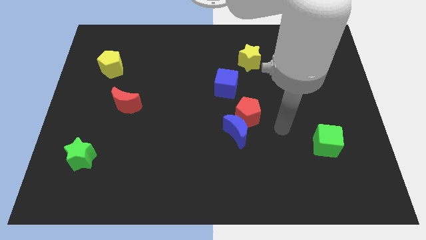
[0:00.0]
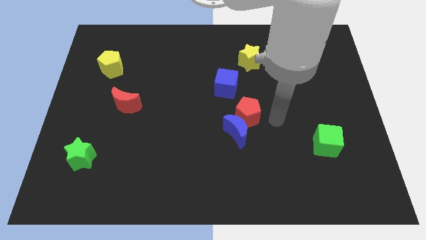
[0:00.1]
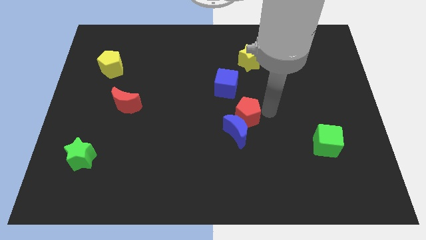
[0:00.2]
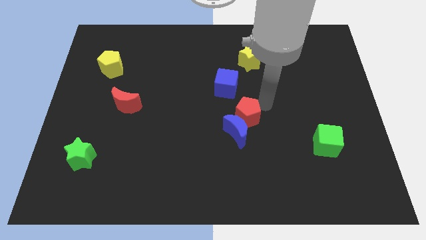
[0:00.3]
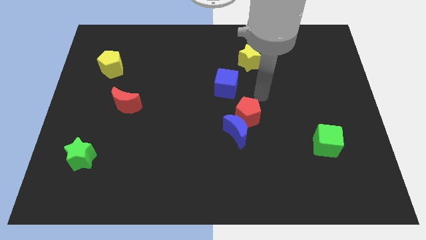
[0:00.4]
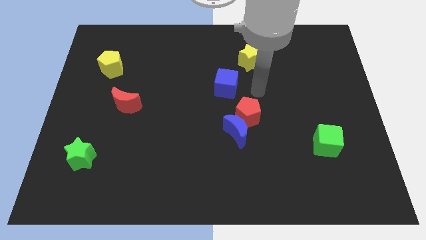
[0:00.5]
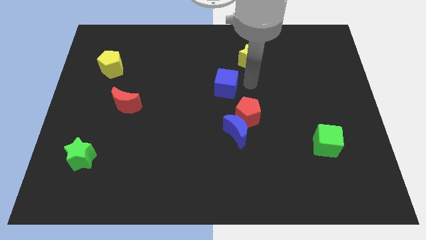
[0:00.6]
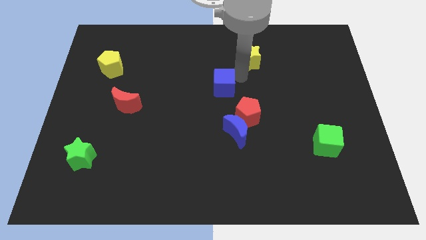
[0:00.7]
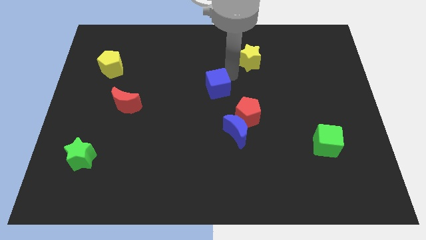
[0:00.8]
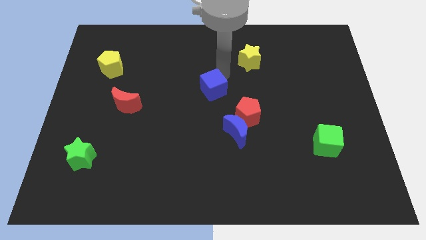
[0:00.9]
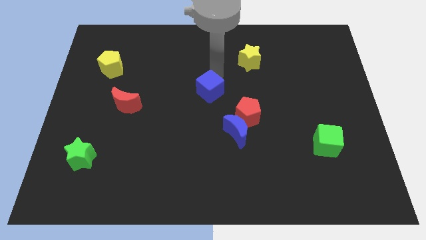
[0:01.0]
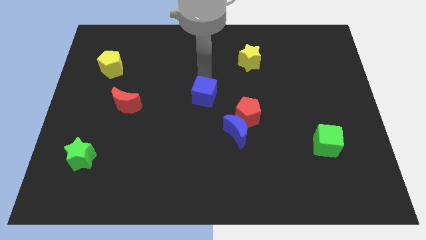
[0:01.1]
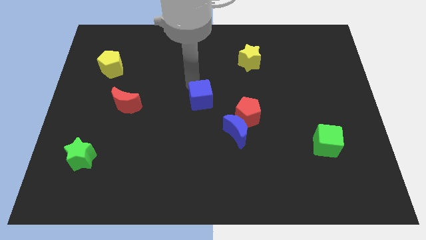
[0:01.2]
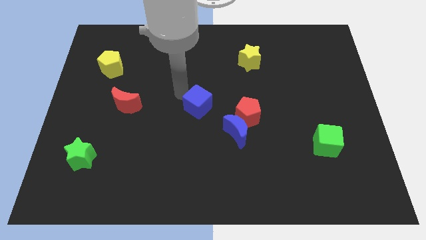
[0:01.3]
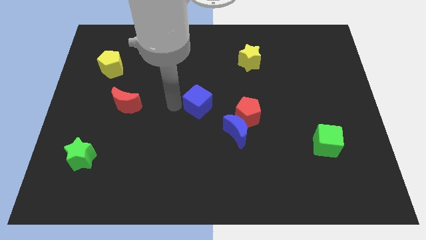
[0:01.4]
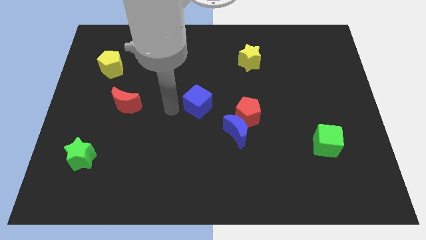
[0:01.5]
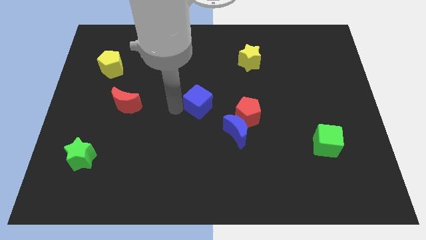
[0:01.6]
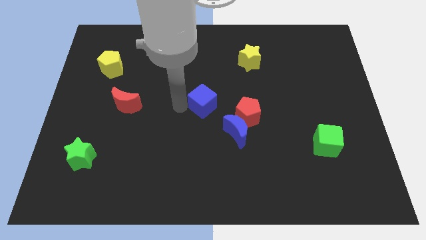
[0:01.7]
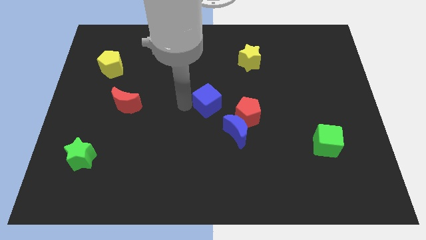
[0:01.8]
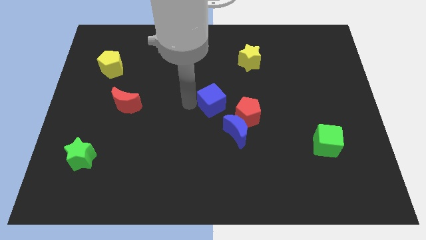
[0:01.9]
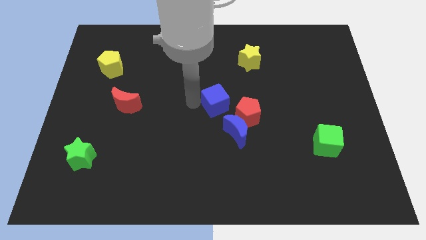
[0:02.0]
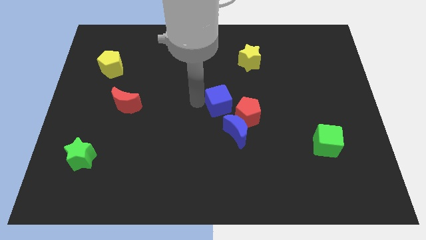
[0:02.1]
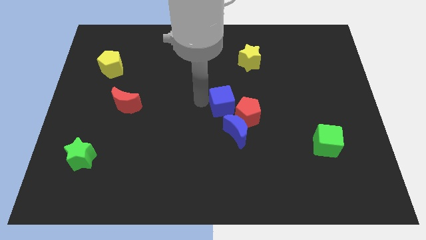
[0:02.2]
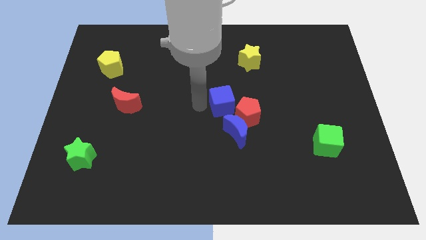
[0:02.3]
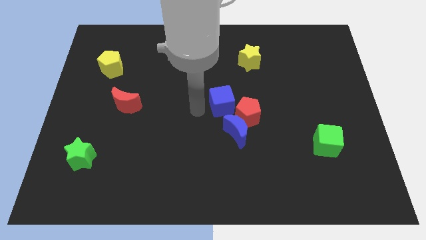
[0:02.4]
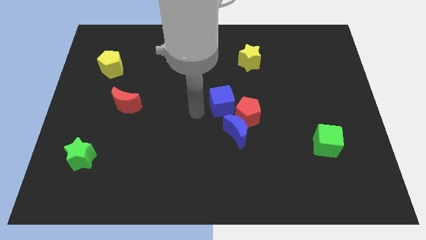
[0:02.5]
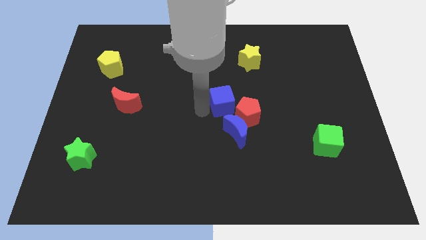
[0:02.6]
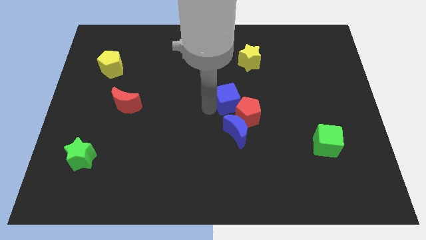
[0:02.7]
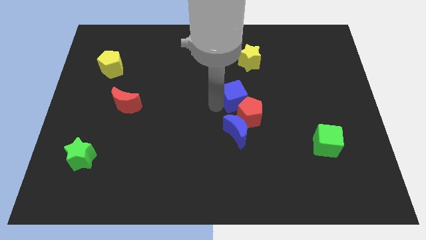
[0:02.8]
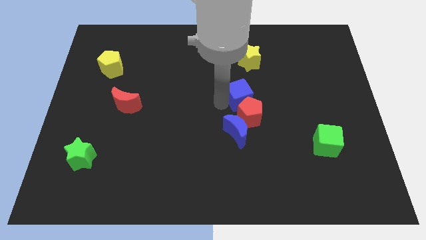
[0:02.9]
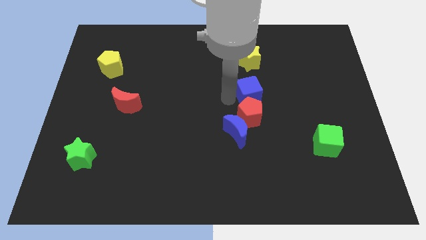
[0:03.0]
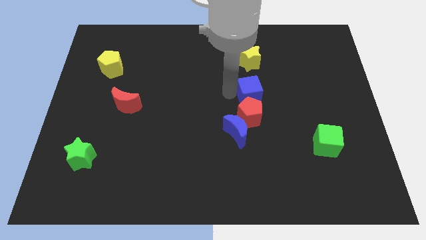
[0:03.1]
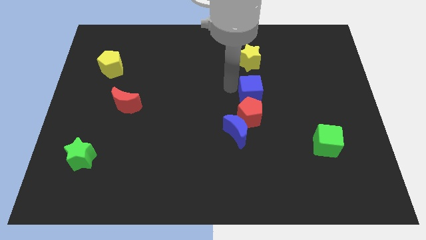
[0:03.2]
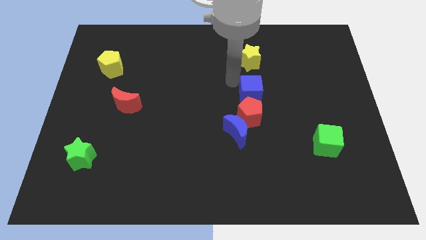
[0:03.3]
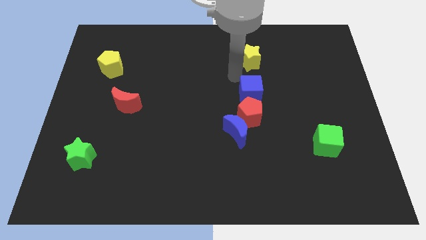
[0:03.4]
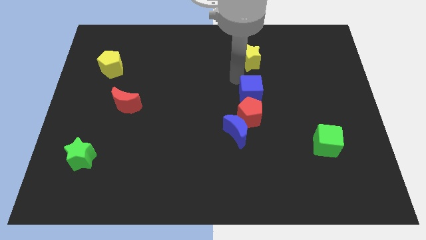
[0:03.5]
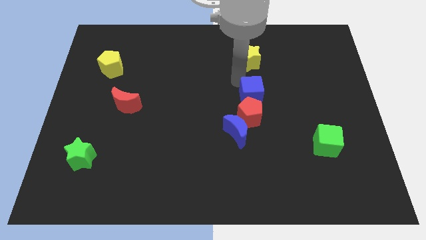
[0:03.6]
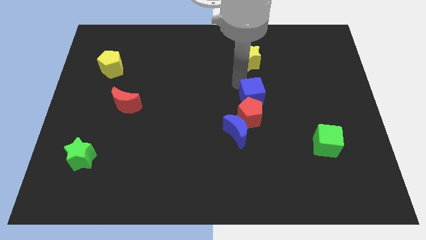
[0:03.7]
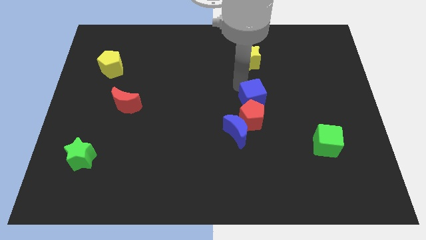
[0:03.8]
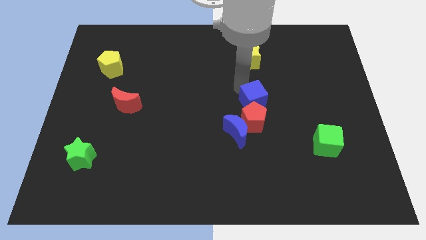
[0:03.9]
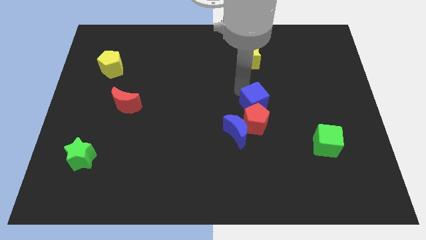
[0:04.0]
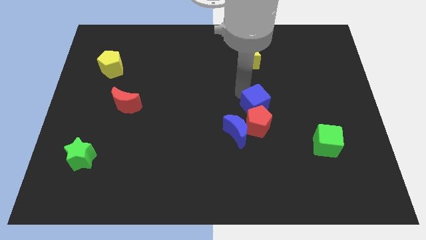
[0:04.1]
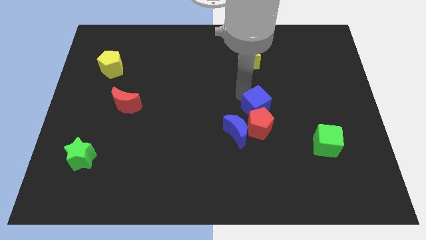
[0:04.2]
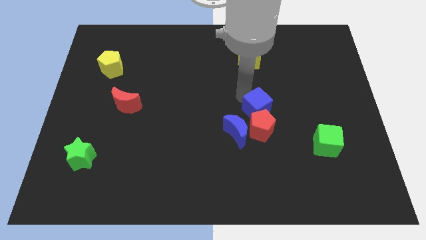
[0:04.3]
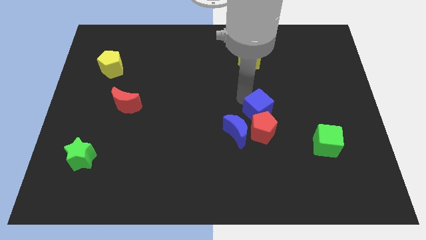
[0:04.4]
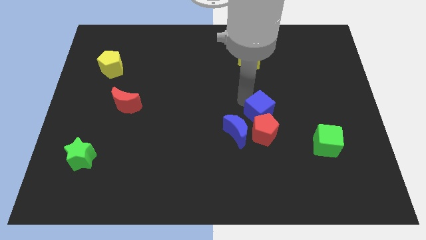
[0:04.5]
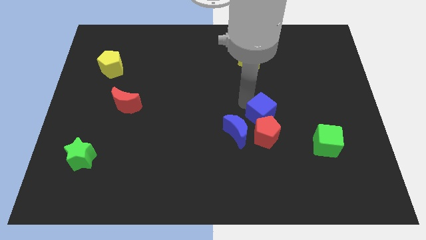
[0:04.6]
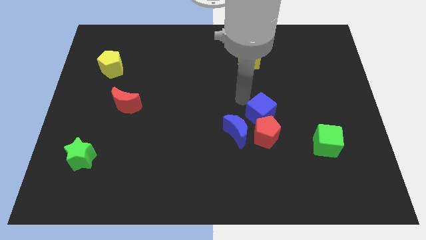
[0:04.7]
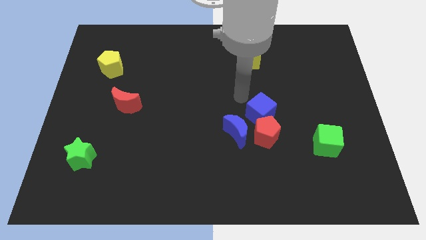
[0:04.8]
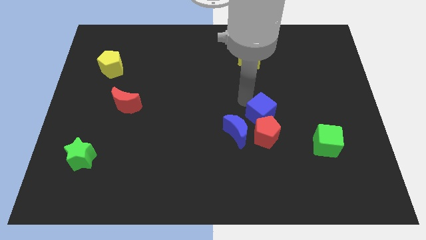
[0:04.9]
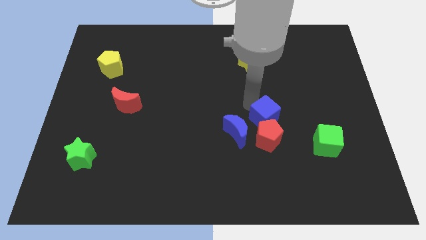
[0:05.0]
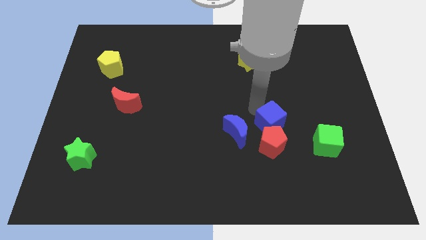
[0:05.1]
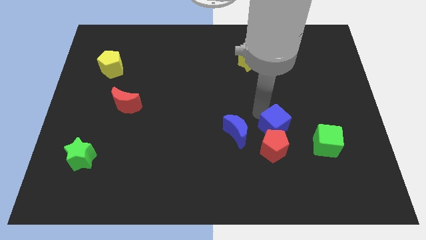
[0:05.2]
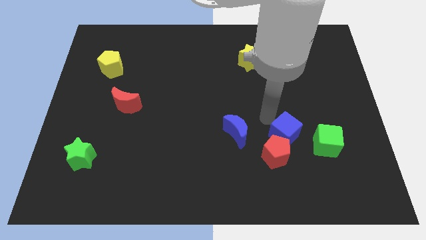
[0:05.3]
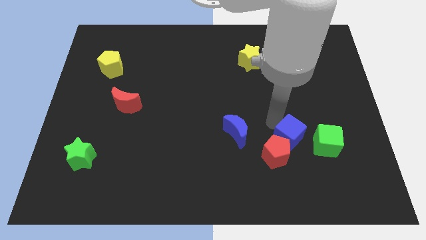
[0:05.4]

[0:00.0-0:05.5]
move the blue cube diagonally down and to the right

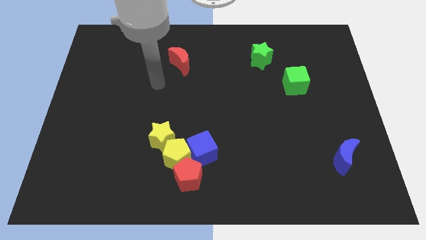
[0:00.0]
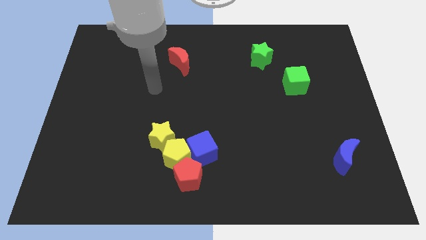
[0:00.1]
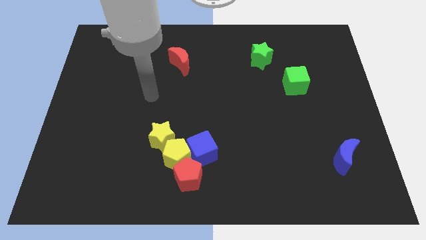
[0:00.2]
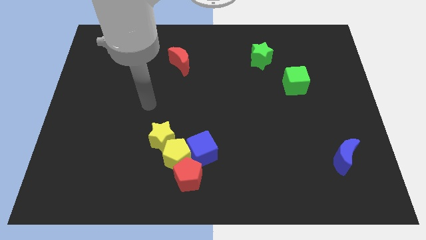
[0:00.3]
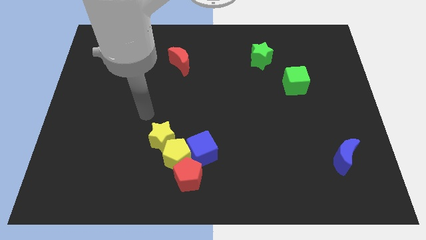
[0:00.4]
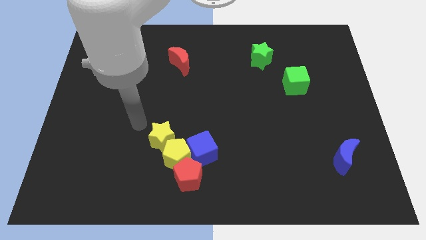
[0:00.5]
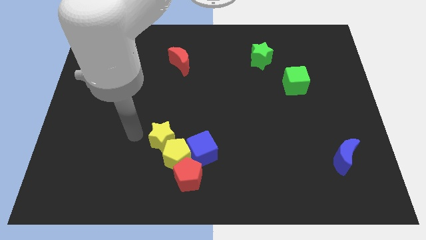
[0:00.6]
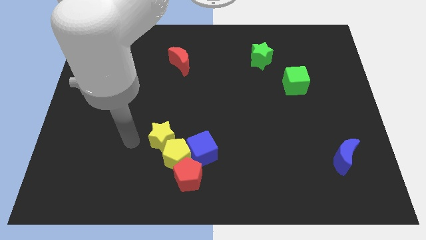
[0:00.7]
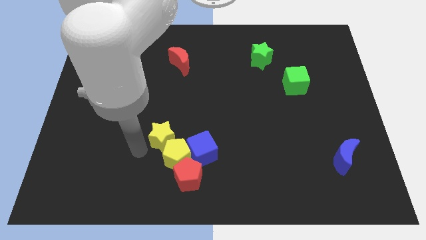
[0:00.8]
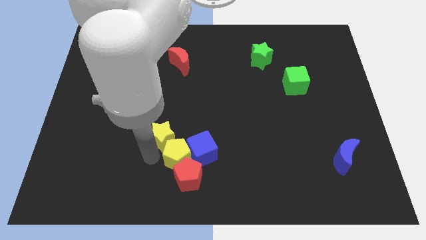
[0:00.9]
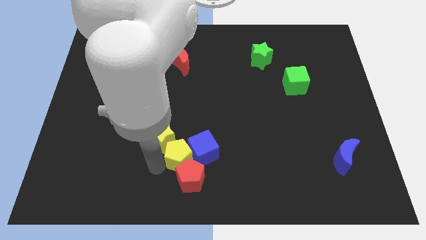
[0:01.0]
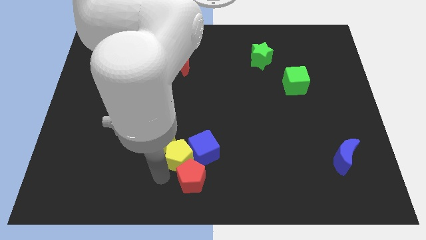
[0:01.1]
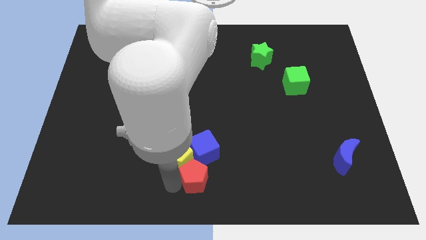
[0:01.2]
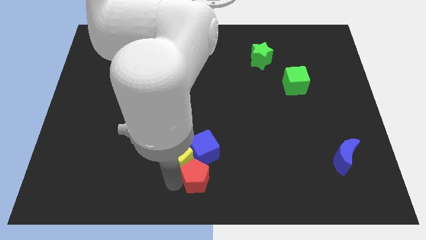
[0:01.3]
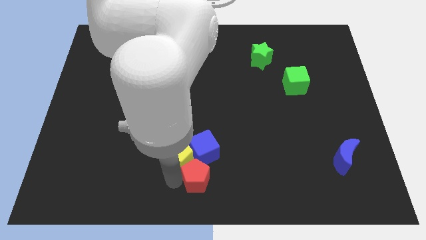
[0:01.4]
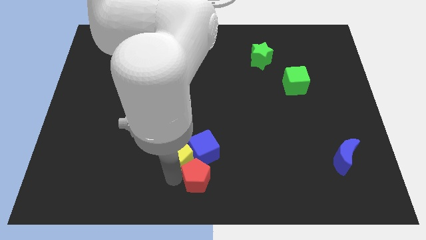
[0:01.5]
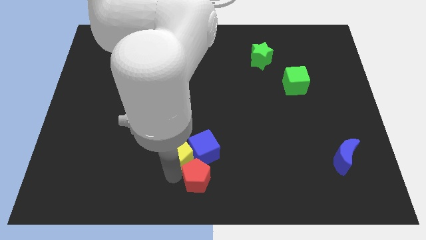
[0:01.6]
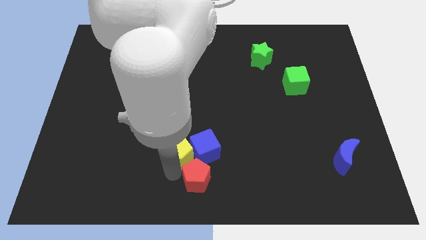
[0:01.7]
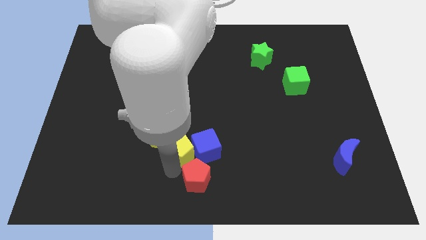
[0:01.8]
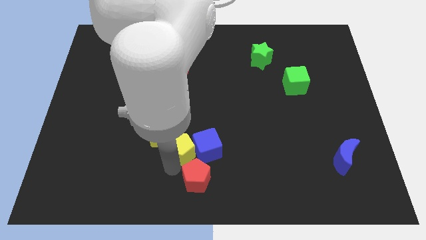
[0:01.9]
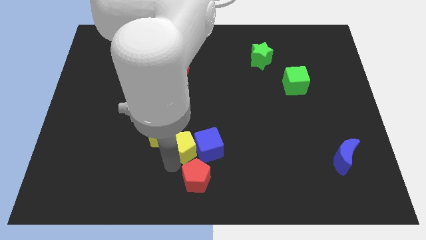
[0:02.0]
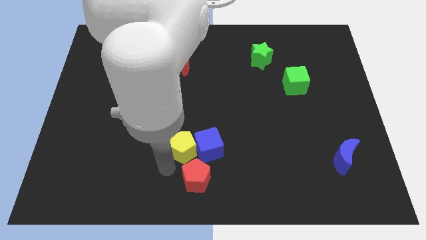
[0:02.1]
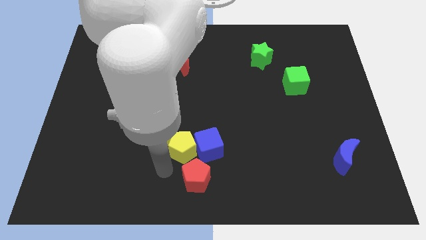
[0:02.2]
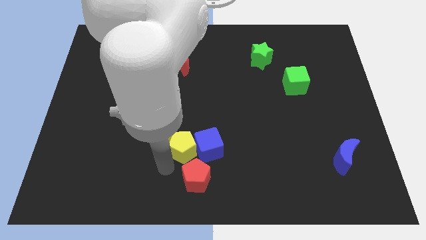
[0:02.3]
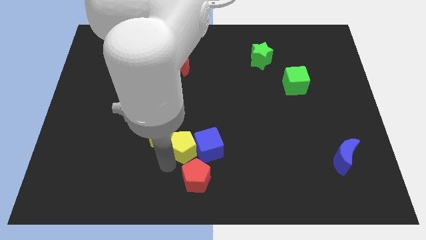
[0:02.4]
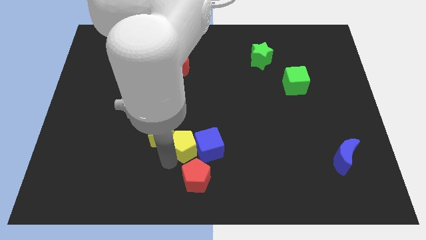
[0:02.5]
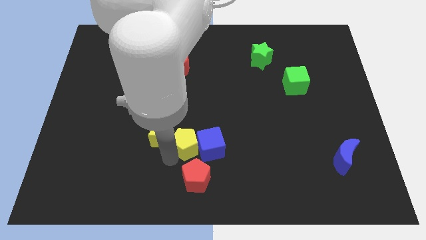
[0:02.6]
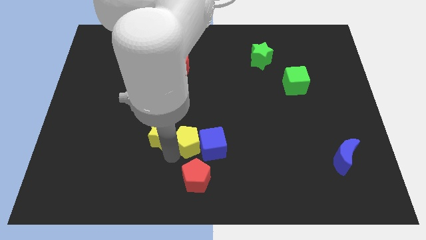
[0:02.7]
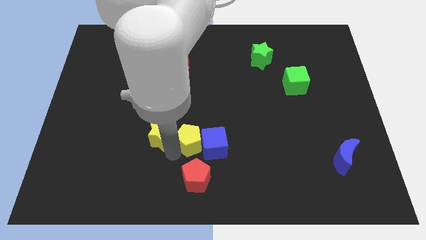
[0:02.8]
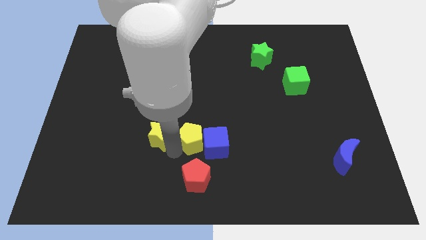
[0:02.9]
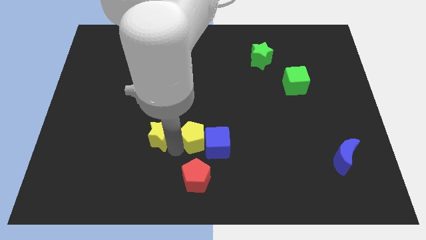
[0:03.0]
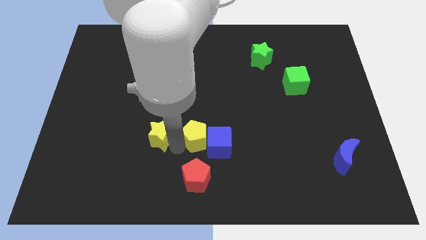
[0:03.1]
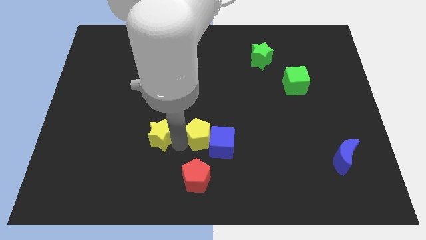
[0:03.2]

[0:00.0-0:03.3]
slide the yellow pentagon slightly upwards and right diagonally
